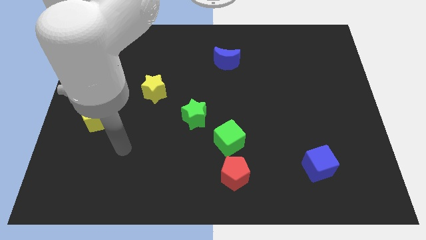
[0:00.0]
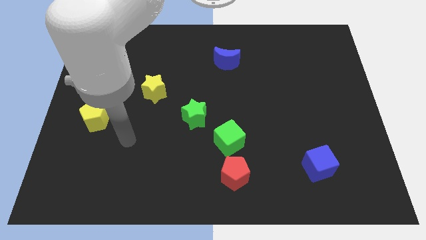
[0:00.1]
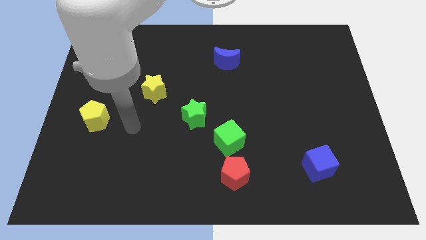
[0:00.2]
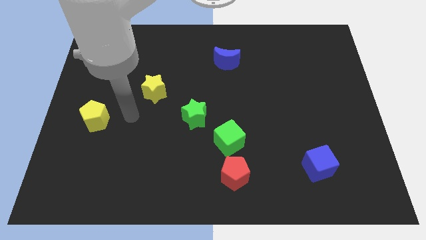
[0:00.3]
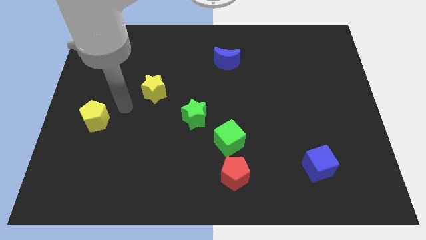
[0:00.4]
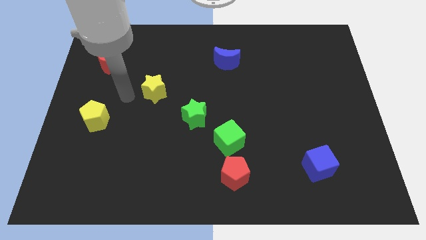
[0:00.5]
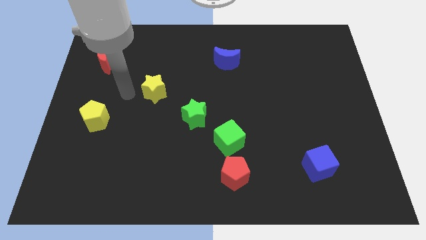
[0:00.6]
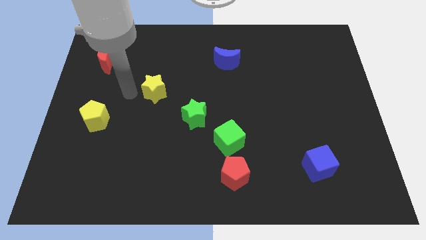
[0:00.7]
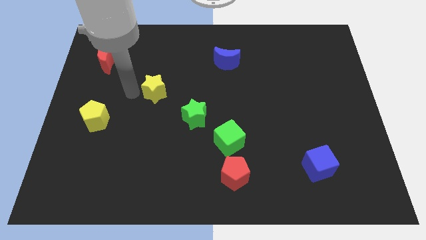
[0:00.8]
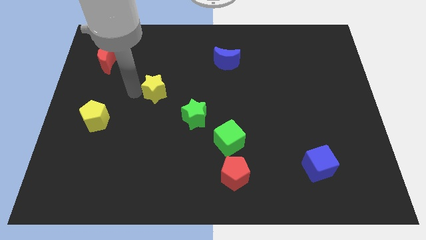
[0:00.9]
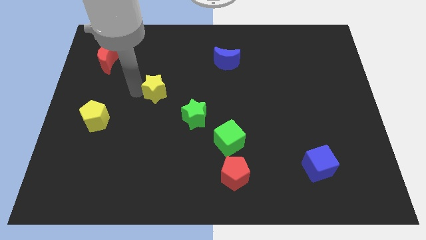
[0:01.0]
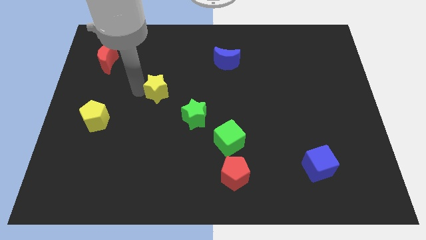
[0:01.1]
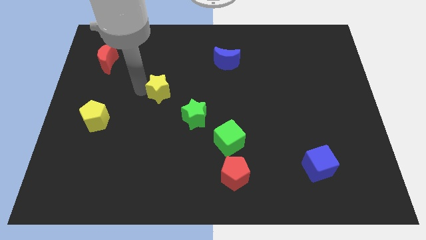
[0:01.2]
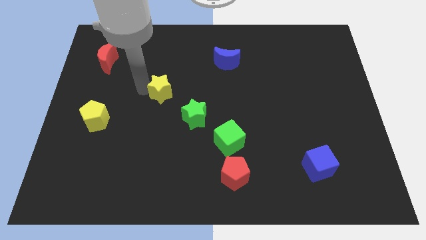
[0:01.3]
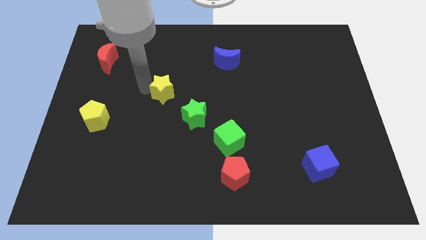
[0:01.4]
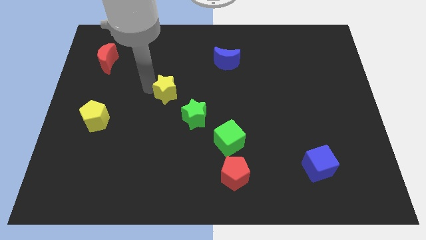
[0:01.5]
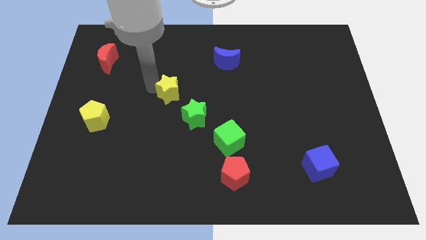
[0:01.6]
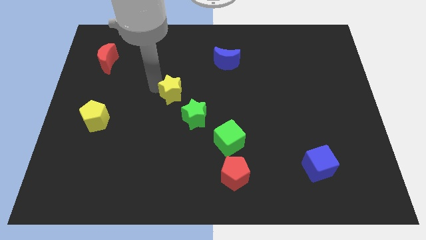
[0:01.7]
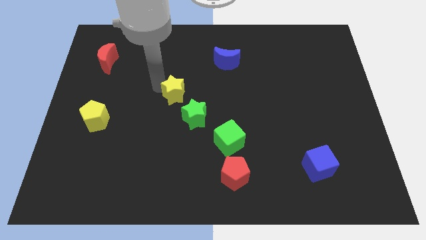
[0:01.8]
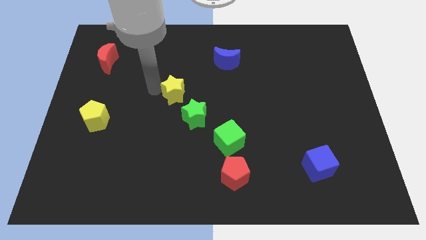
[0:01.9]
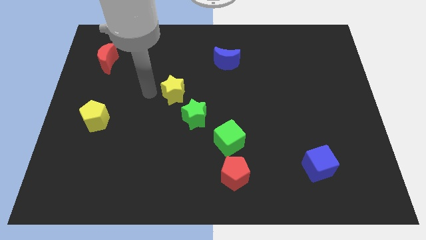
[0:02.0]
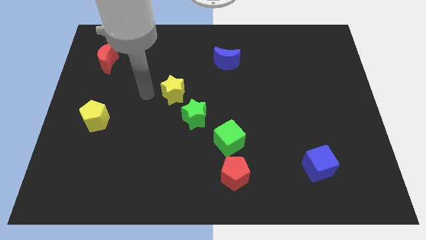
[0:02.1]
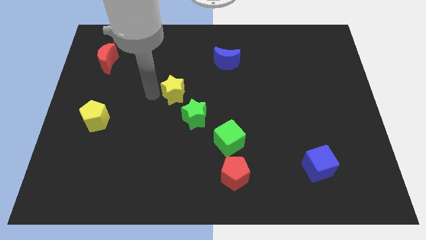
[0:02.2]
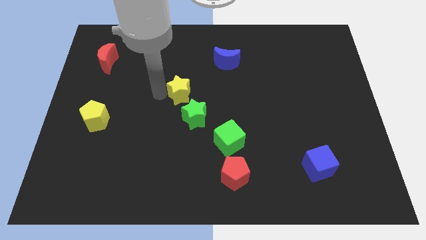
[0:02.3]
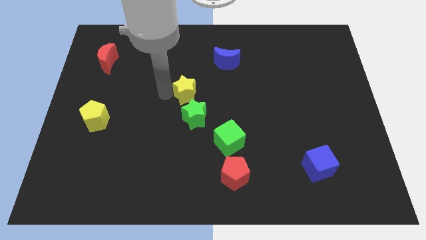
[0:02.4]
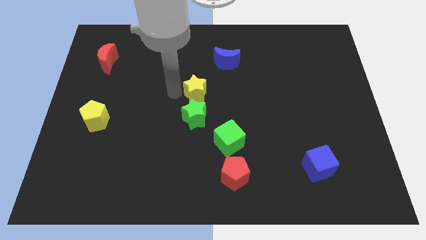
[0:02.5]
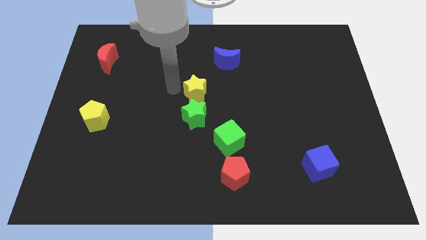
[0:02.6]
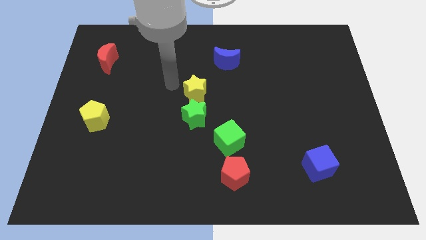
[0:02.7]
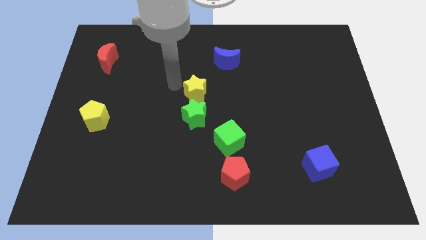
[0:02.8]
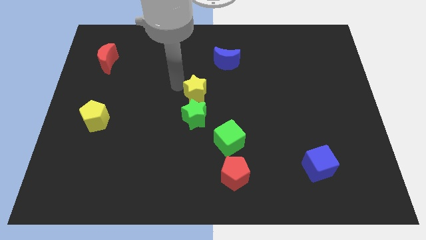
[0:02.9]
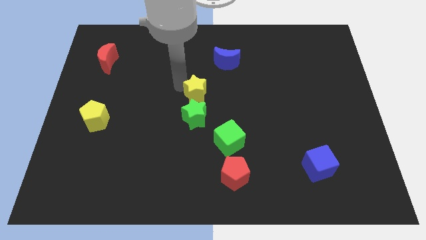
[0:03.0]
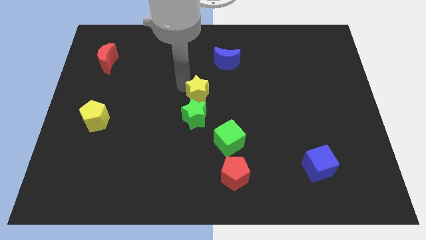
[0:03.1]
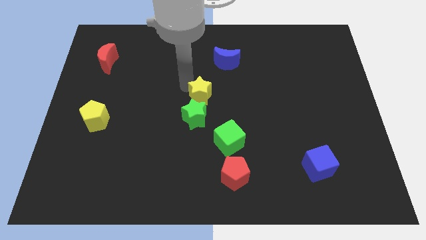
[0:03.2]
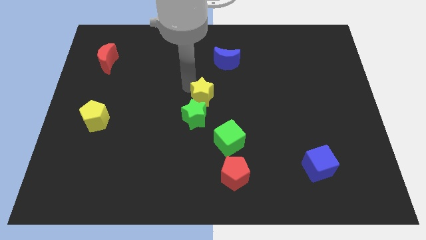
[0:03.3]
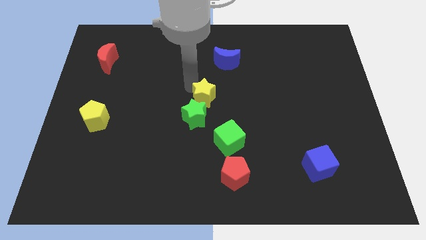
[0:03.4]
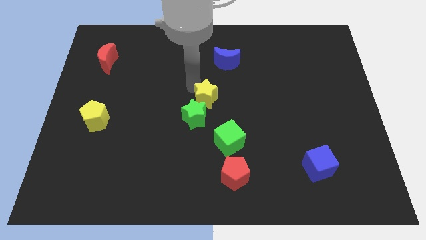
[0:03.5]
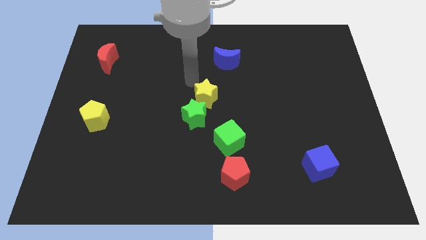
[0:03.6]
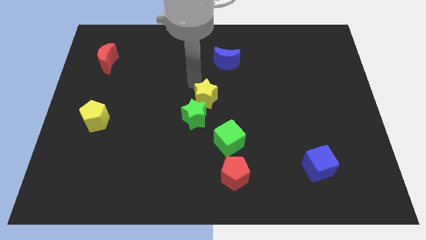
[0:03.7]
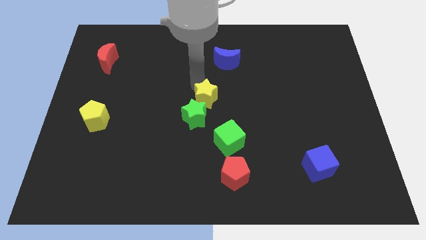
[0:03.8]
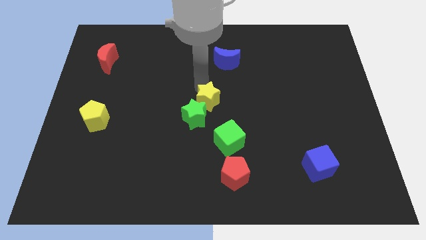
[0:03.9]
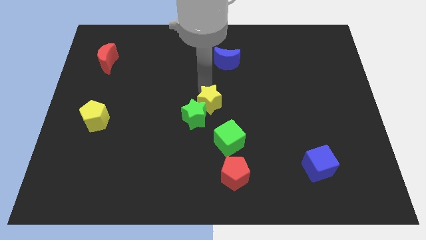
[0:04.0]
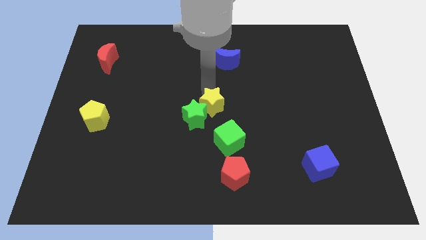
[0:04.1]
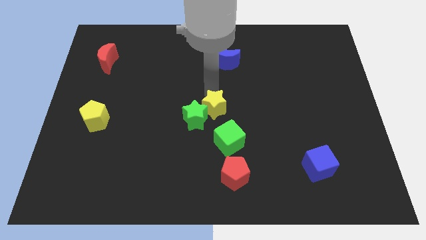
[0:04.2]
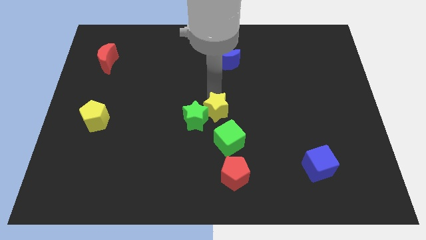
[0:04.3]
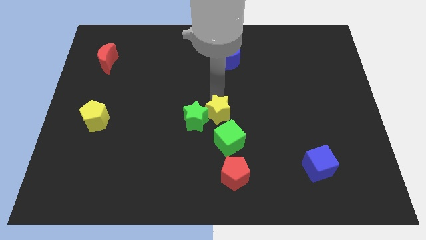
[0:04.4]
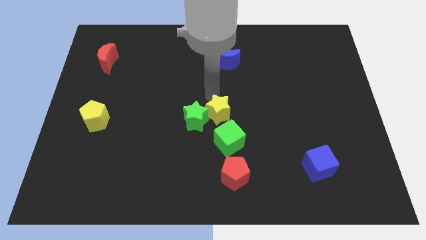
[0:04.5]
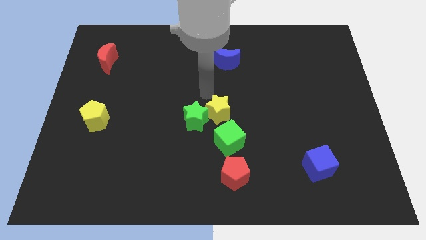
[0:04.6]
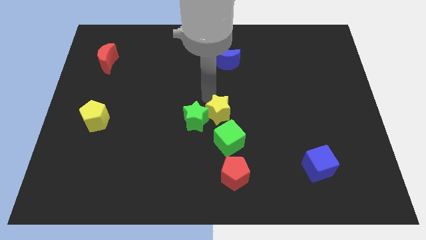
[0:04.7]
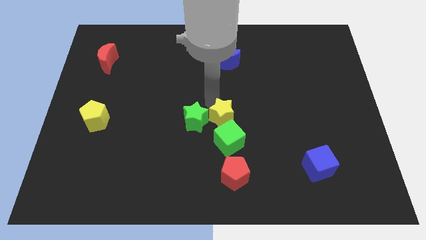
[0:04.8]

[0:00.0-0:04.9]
move the yellow star to the top side of the red pentagon

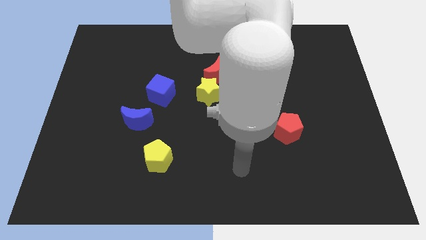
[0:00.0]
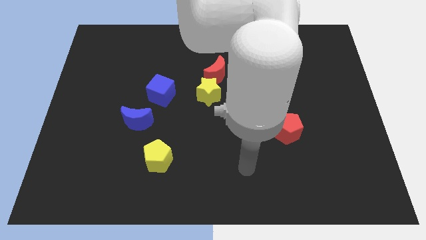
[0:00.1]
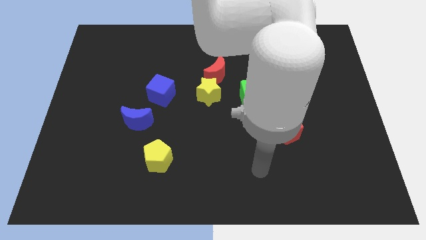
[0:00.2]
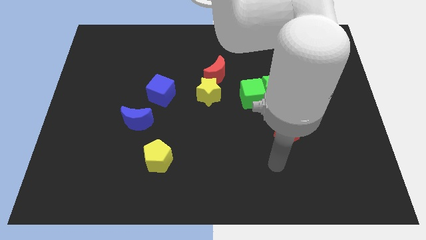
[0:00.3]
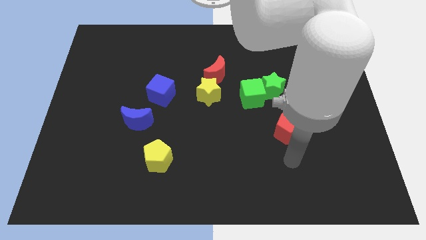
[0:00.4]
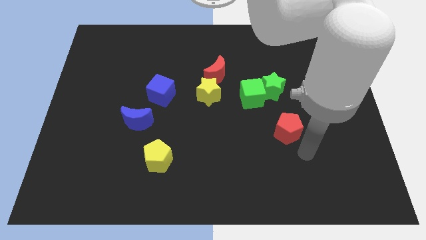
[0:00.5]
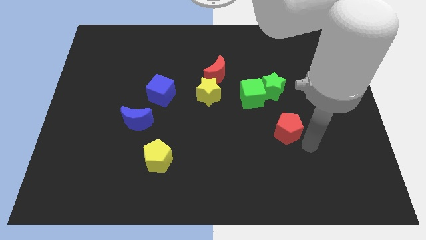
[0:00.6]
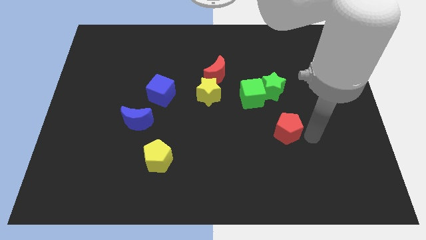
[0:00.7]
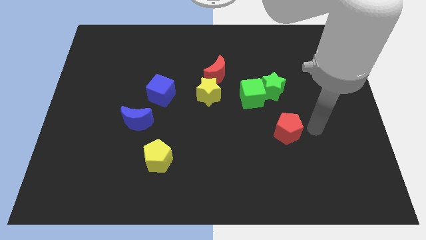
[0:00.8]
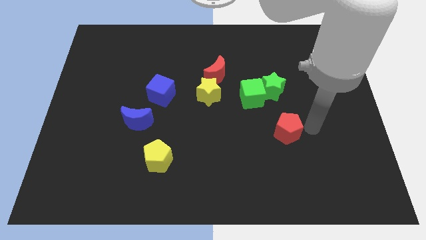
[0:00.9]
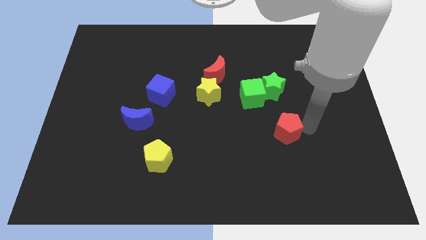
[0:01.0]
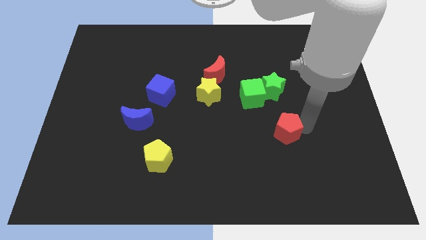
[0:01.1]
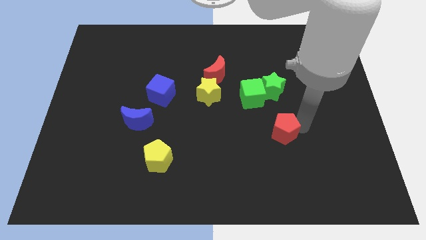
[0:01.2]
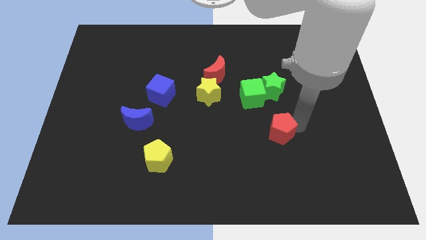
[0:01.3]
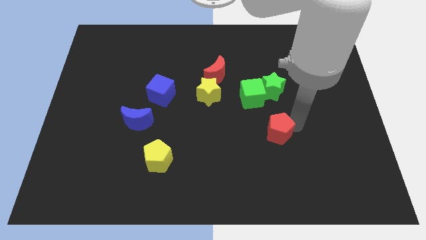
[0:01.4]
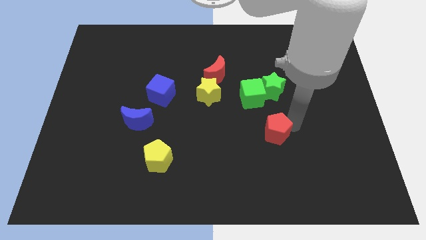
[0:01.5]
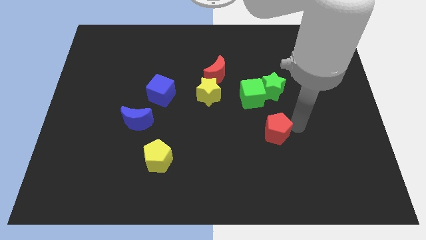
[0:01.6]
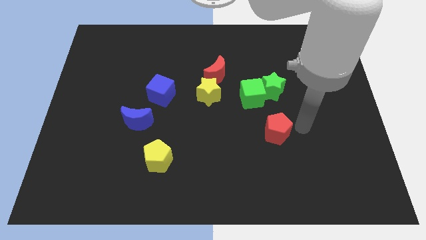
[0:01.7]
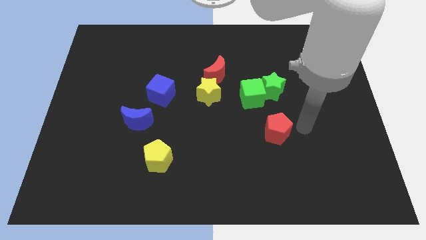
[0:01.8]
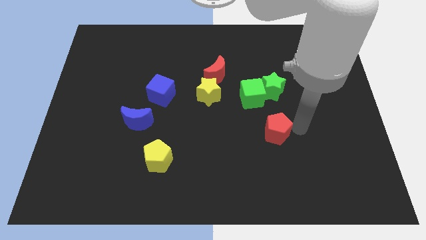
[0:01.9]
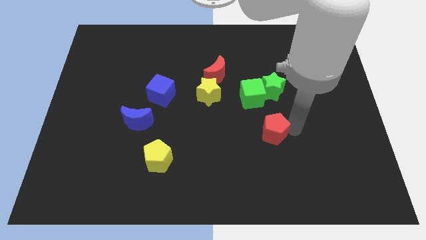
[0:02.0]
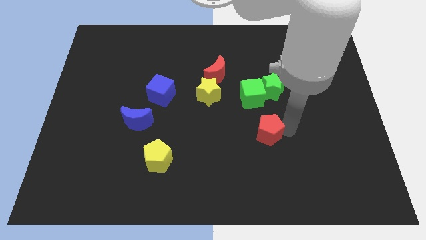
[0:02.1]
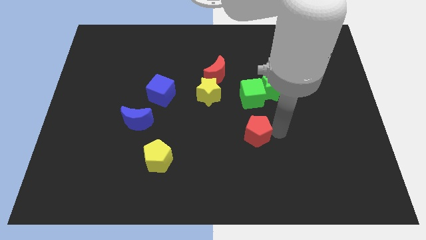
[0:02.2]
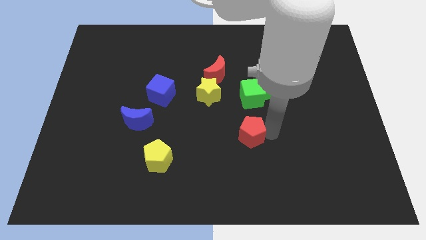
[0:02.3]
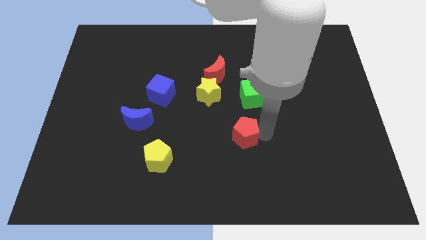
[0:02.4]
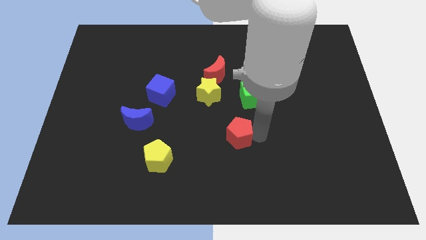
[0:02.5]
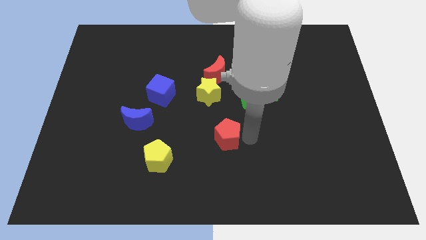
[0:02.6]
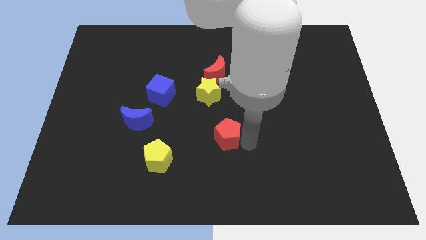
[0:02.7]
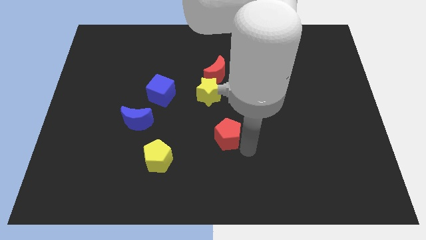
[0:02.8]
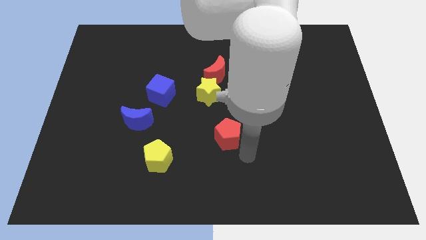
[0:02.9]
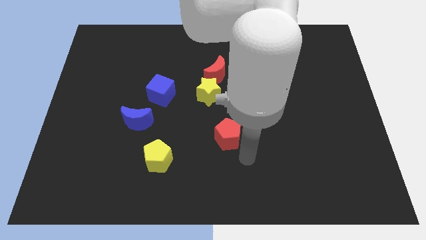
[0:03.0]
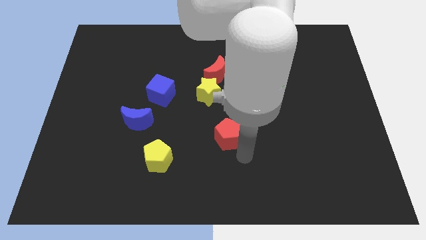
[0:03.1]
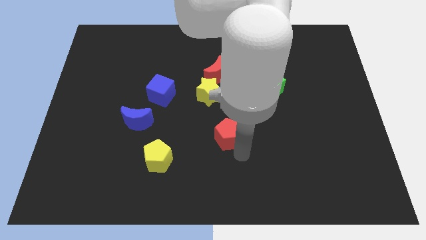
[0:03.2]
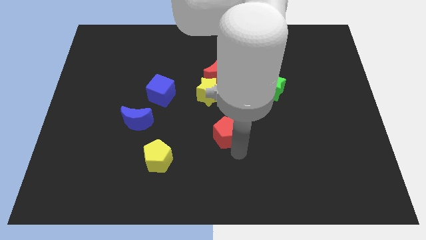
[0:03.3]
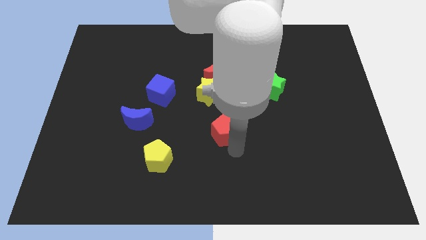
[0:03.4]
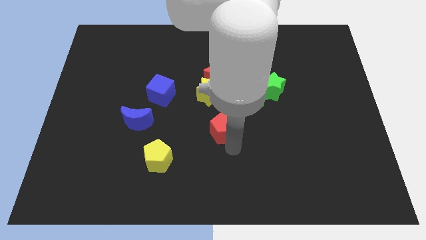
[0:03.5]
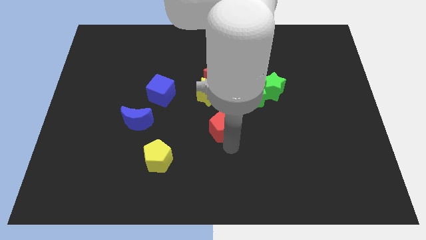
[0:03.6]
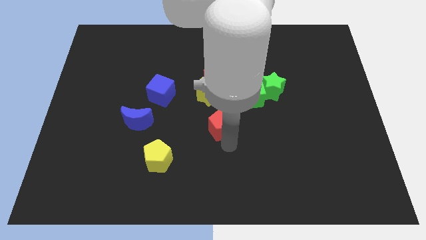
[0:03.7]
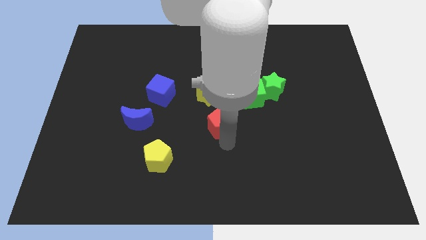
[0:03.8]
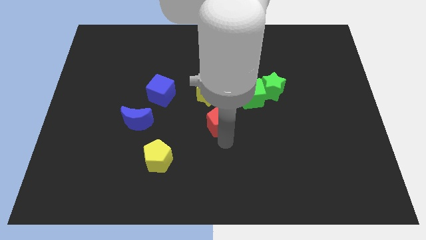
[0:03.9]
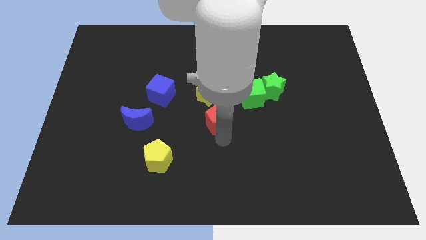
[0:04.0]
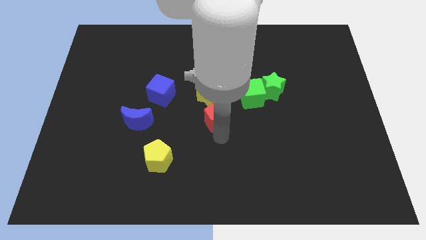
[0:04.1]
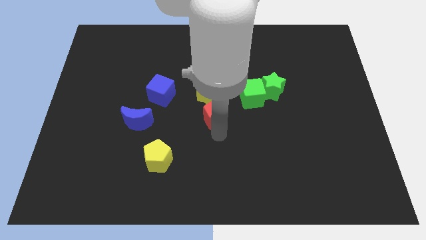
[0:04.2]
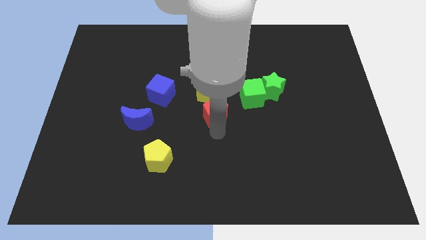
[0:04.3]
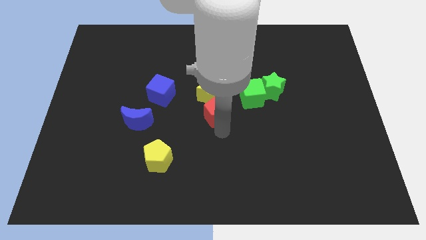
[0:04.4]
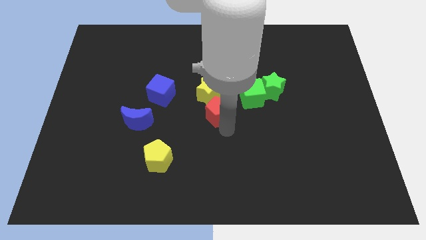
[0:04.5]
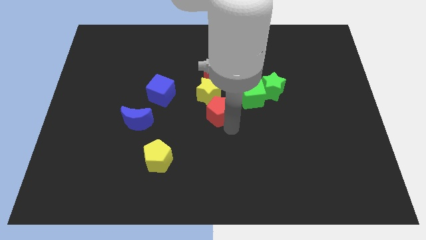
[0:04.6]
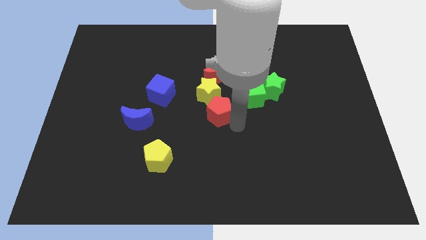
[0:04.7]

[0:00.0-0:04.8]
slide the red pentagon left of the green cube
